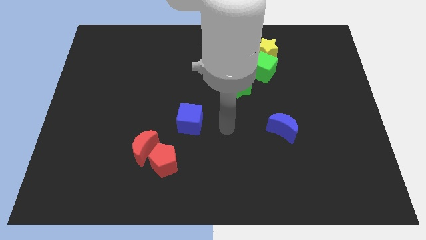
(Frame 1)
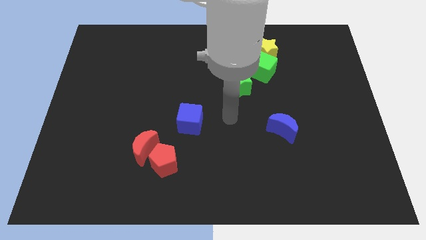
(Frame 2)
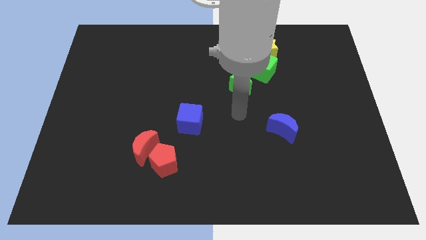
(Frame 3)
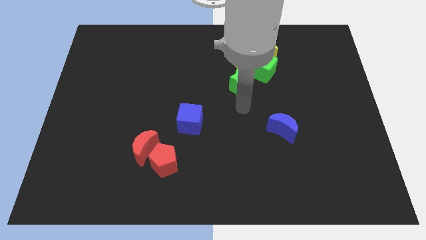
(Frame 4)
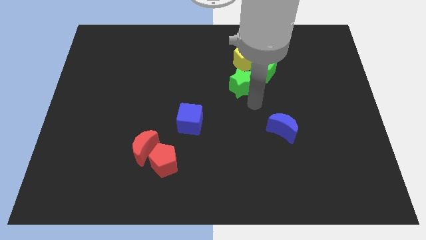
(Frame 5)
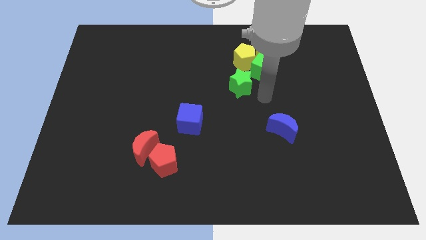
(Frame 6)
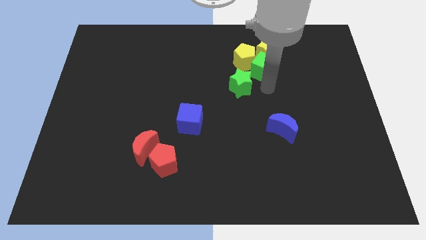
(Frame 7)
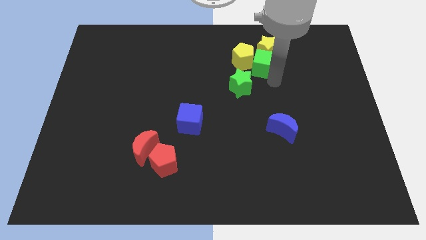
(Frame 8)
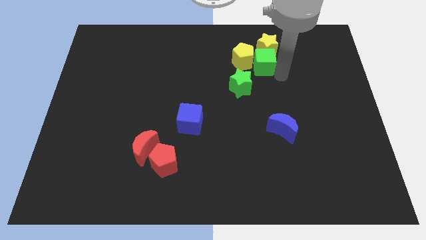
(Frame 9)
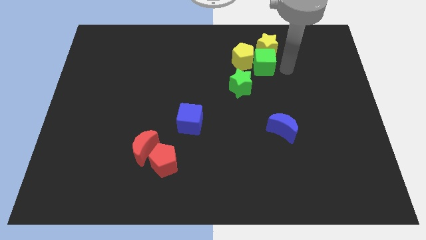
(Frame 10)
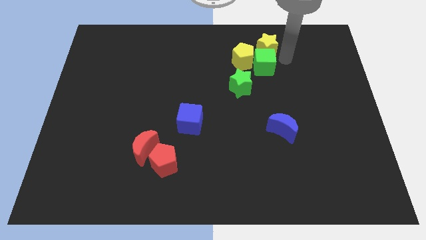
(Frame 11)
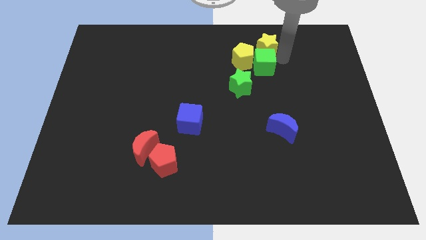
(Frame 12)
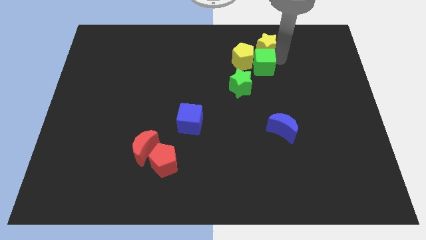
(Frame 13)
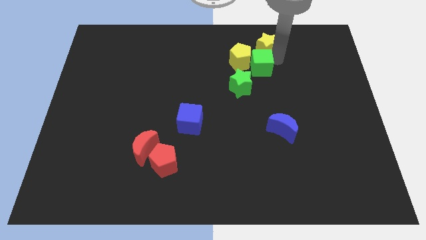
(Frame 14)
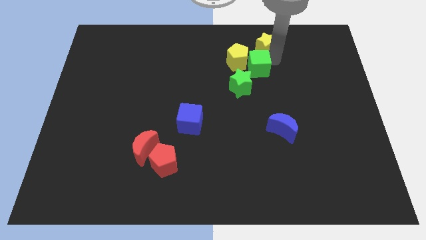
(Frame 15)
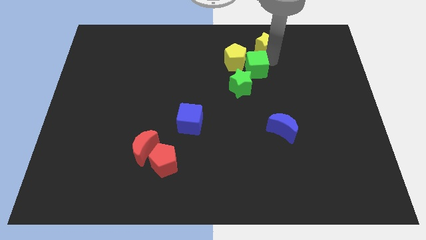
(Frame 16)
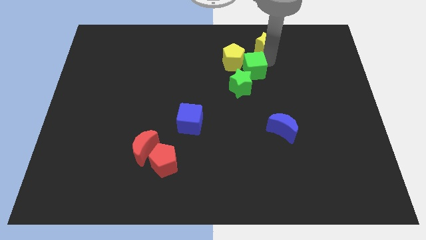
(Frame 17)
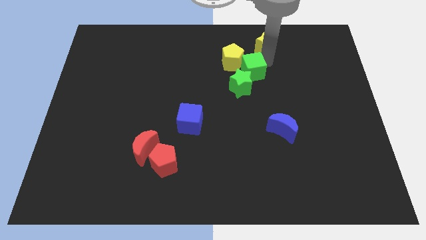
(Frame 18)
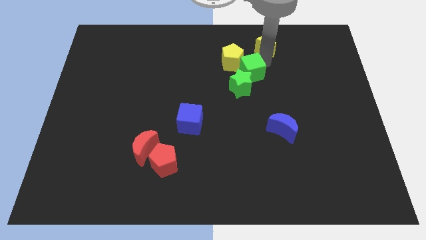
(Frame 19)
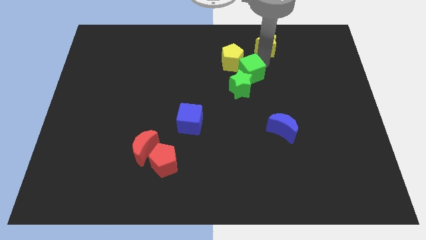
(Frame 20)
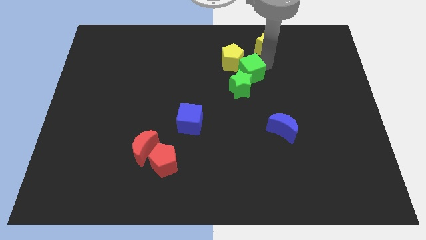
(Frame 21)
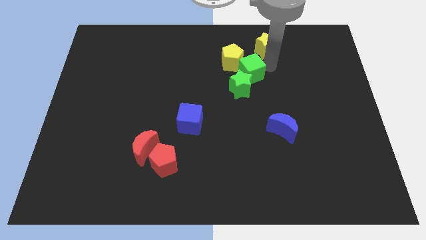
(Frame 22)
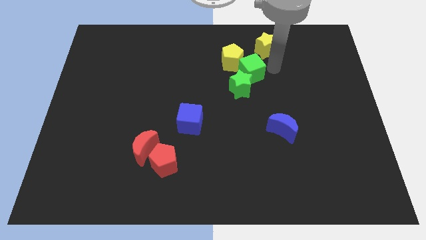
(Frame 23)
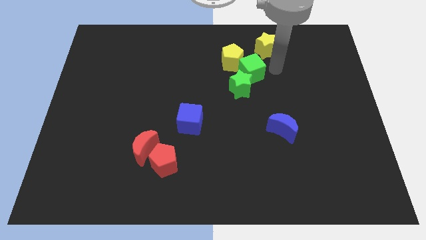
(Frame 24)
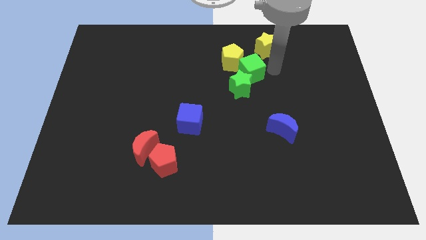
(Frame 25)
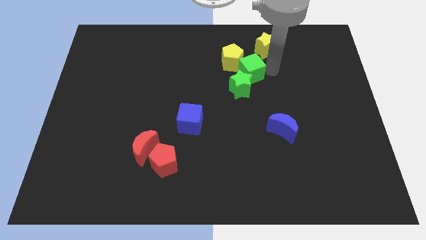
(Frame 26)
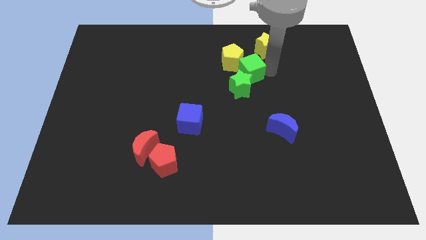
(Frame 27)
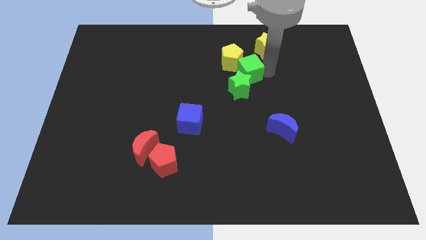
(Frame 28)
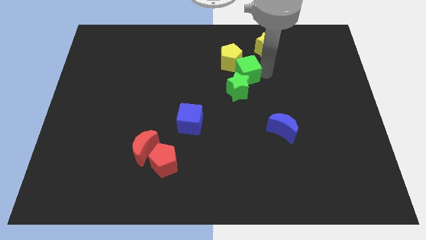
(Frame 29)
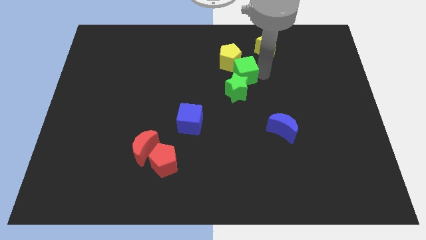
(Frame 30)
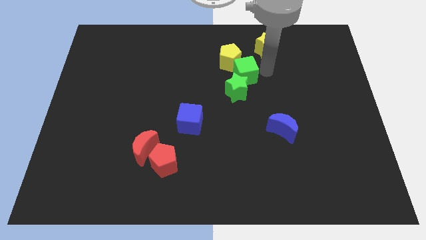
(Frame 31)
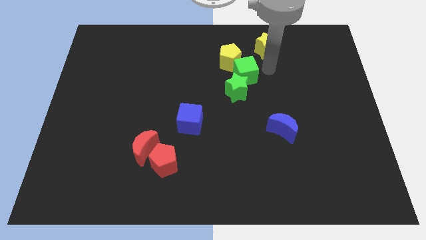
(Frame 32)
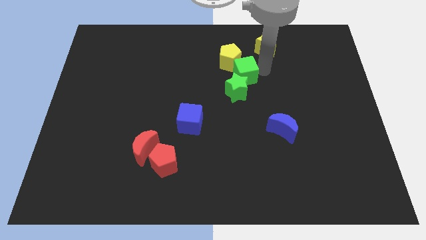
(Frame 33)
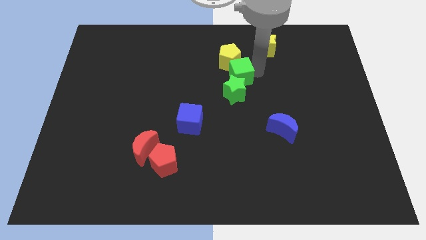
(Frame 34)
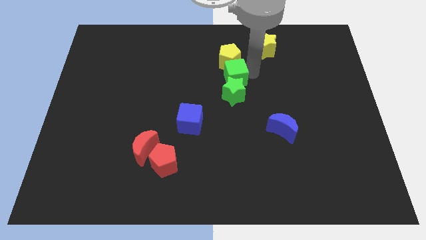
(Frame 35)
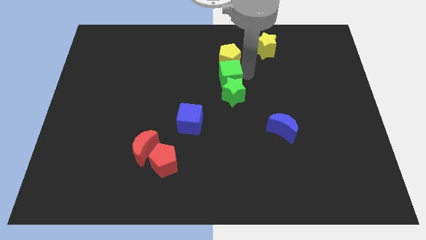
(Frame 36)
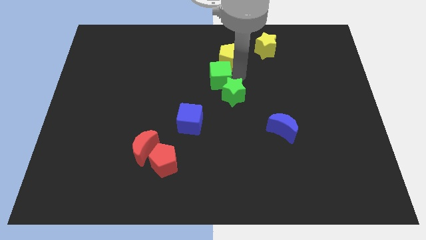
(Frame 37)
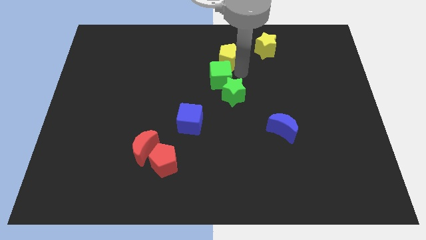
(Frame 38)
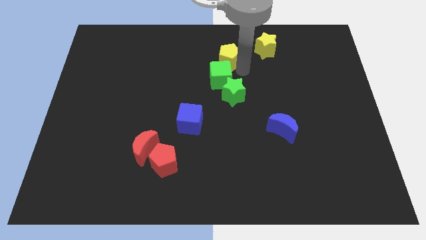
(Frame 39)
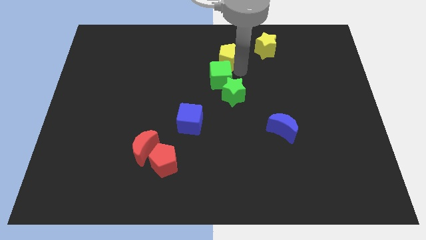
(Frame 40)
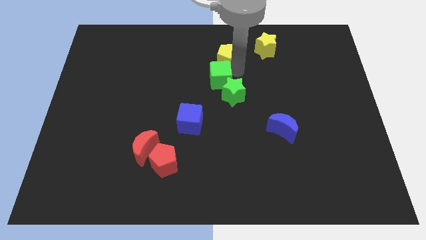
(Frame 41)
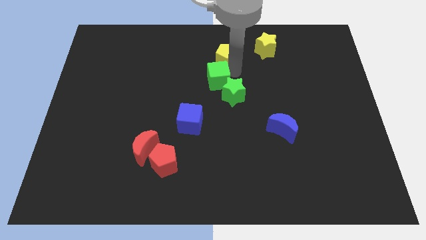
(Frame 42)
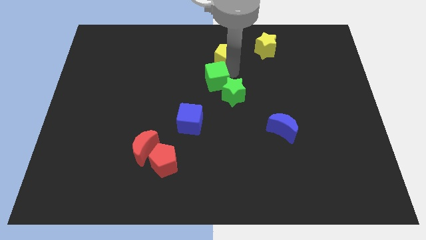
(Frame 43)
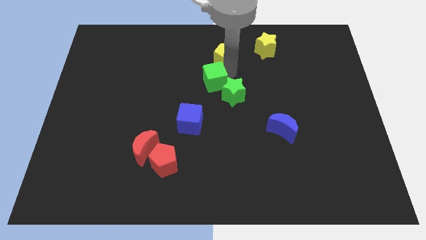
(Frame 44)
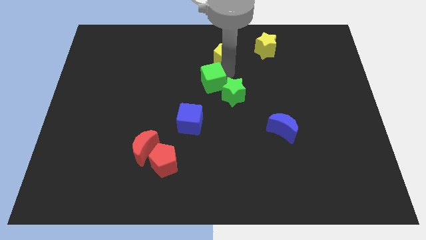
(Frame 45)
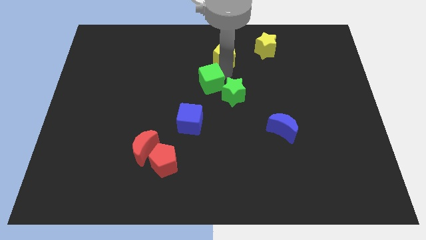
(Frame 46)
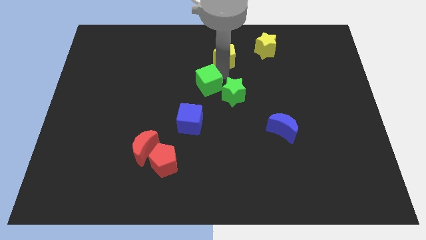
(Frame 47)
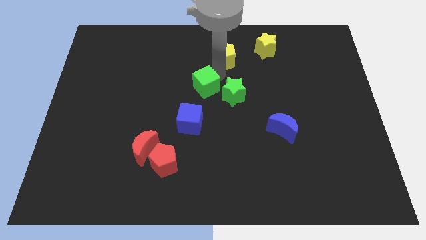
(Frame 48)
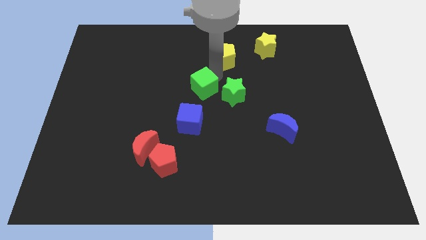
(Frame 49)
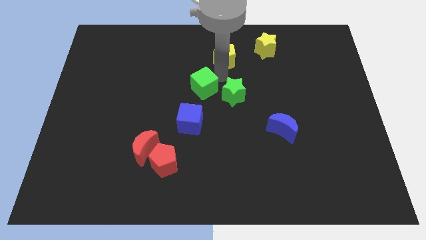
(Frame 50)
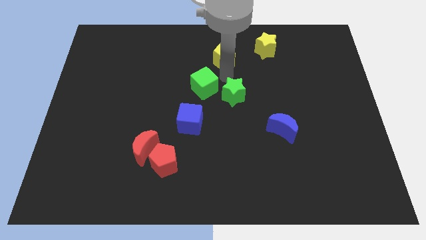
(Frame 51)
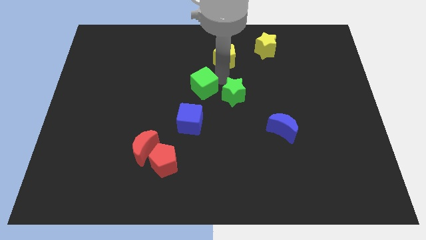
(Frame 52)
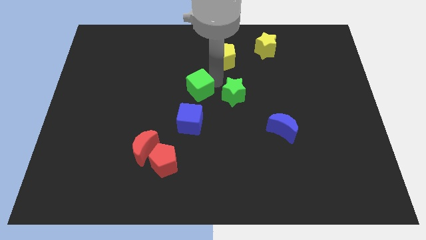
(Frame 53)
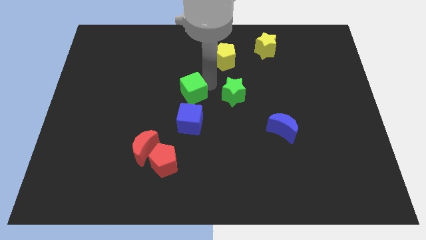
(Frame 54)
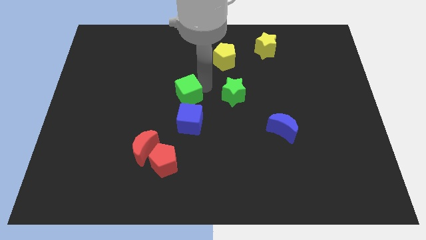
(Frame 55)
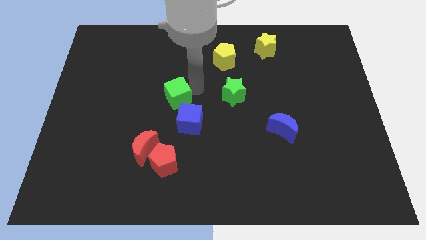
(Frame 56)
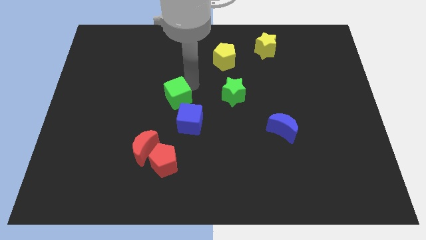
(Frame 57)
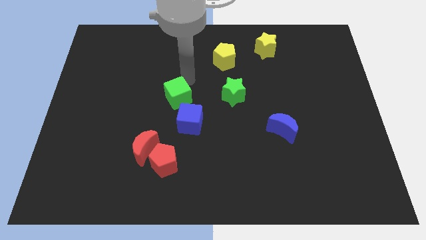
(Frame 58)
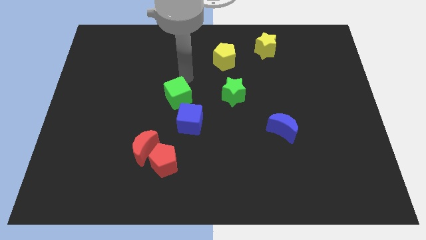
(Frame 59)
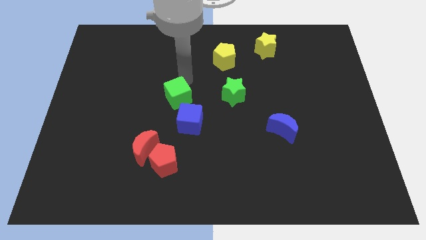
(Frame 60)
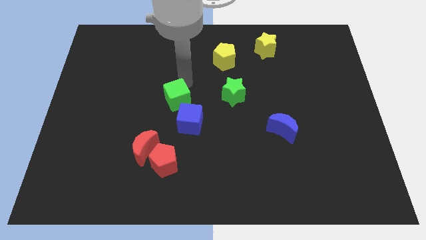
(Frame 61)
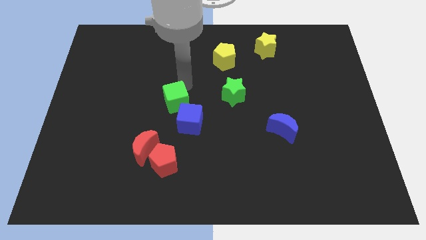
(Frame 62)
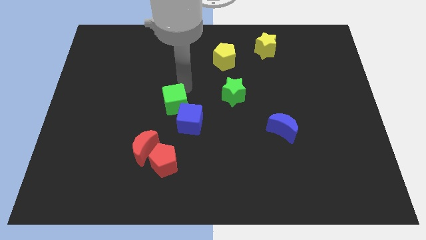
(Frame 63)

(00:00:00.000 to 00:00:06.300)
move the green cube above the red pentagon

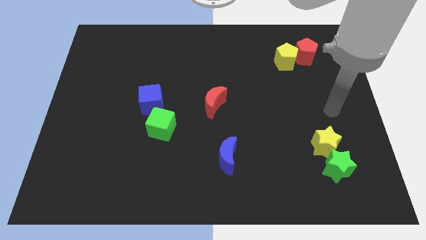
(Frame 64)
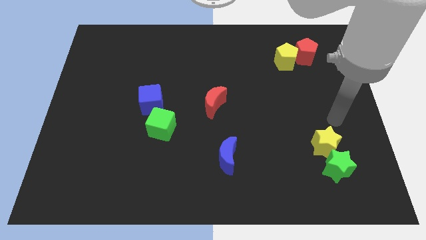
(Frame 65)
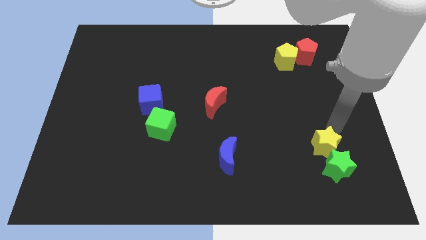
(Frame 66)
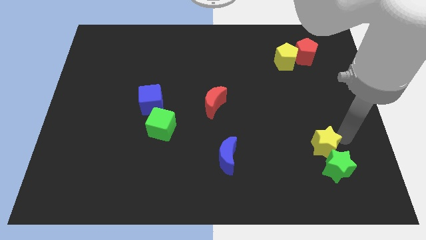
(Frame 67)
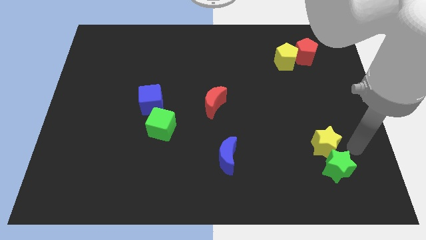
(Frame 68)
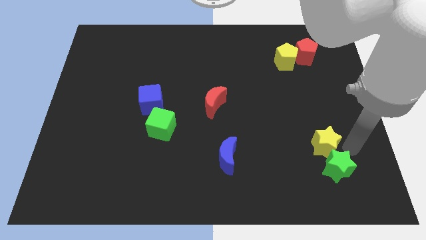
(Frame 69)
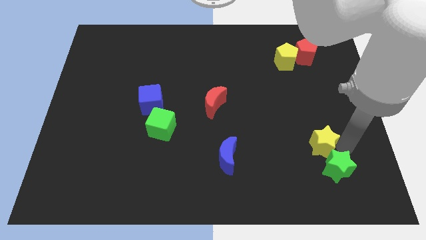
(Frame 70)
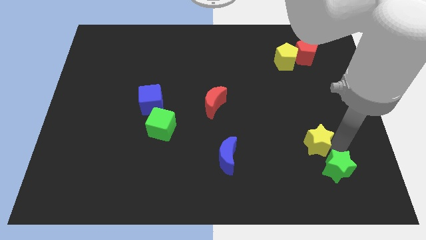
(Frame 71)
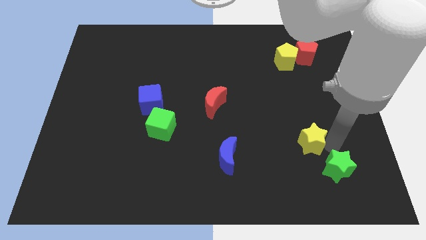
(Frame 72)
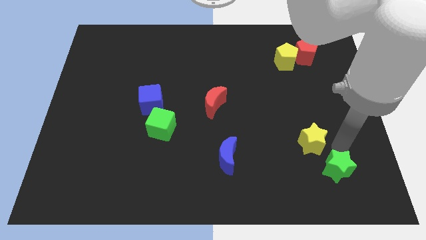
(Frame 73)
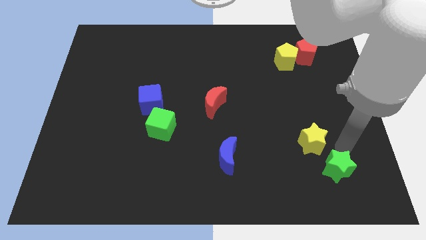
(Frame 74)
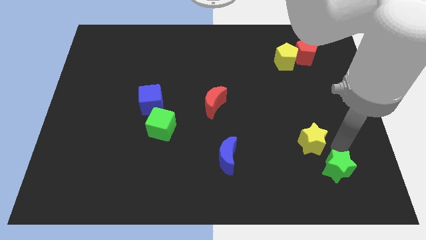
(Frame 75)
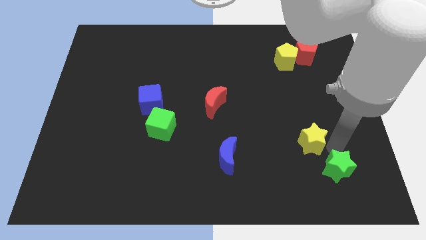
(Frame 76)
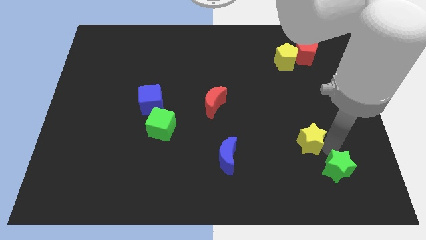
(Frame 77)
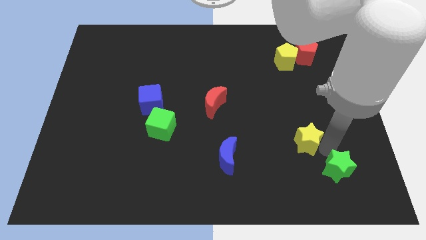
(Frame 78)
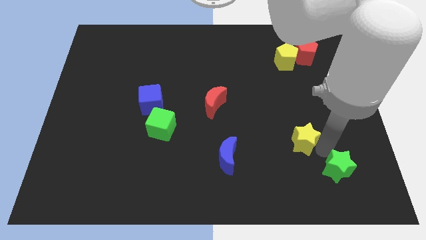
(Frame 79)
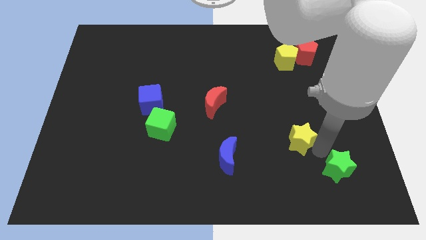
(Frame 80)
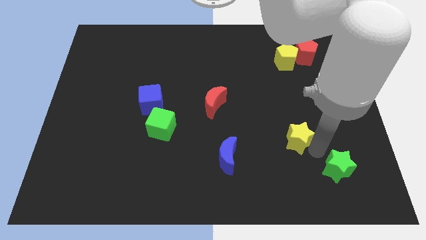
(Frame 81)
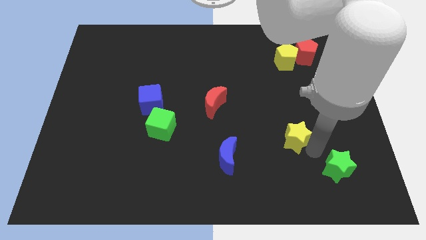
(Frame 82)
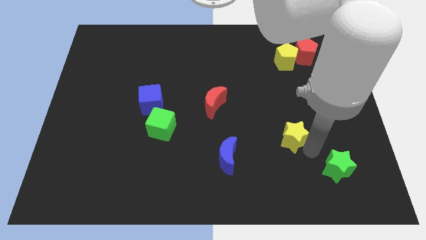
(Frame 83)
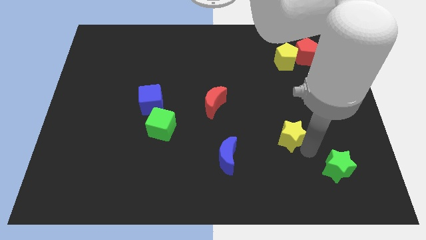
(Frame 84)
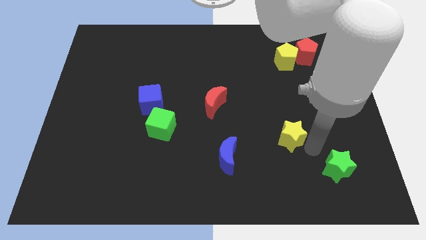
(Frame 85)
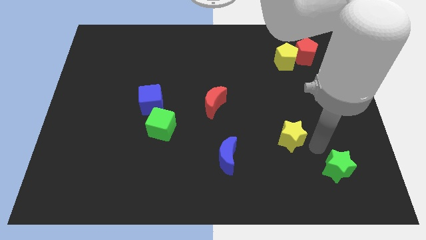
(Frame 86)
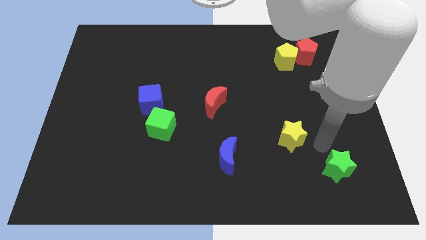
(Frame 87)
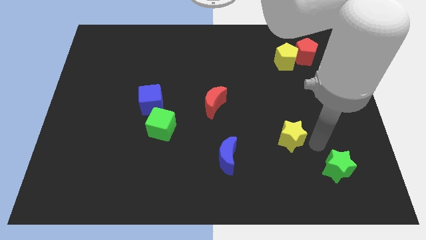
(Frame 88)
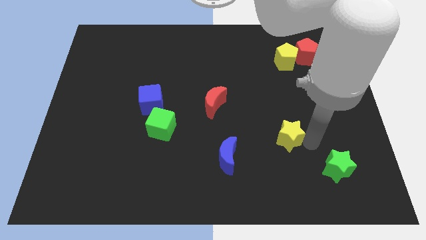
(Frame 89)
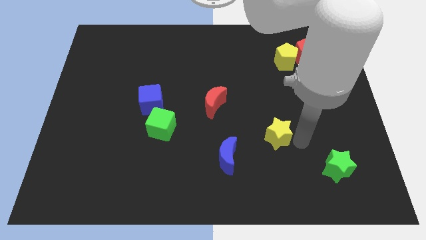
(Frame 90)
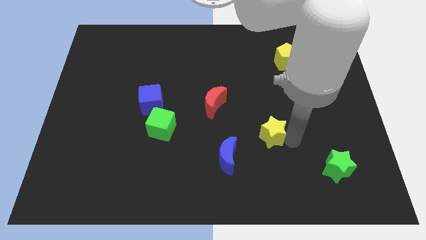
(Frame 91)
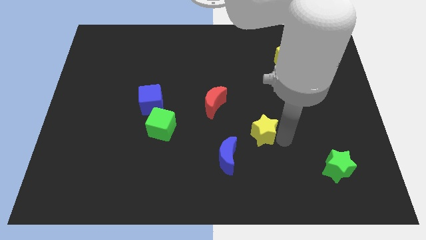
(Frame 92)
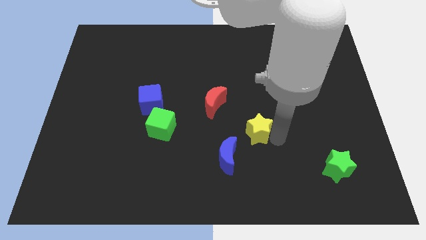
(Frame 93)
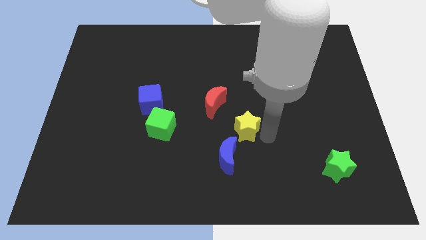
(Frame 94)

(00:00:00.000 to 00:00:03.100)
slide the yellow star to the top side of the blue moon
